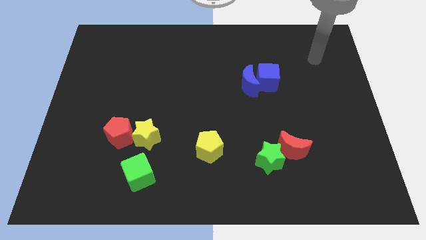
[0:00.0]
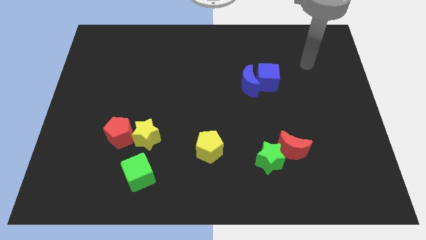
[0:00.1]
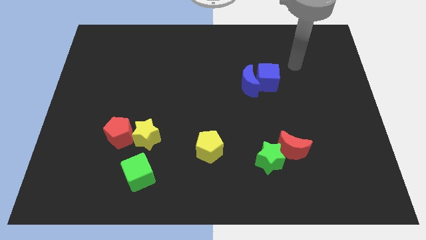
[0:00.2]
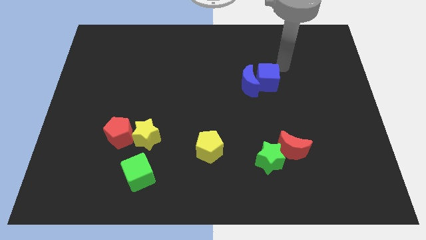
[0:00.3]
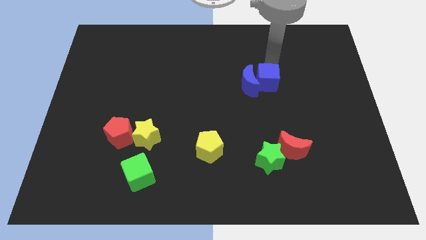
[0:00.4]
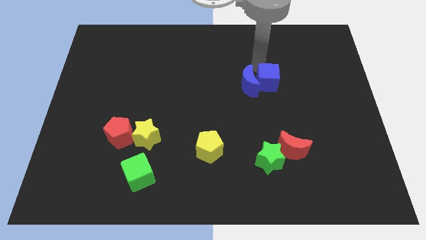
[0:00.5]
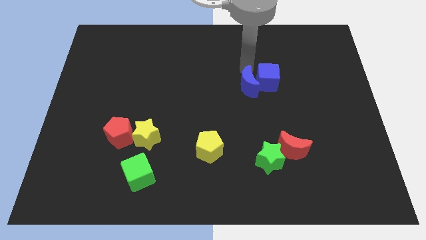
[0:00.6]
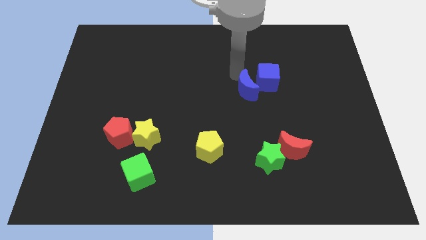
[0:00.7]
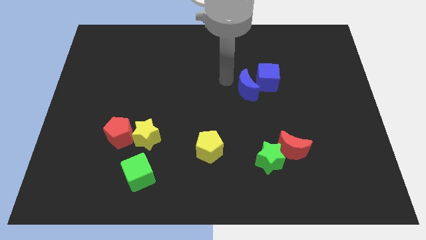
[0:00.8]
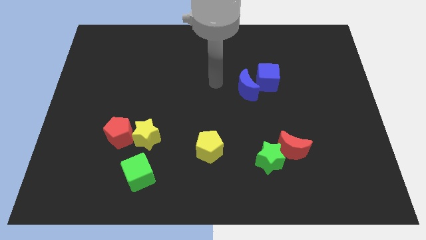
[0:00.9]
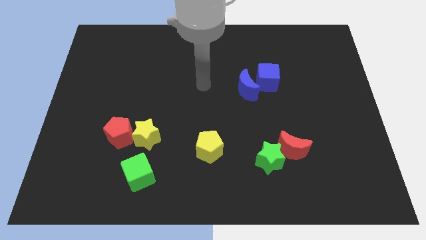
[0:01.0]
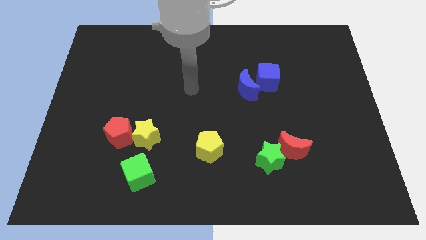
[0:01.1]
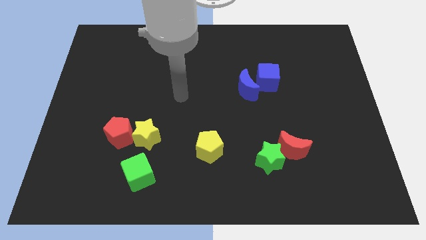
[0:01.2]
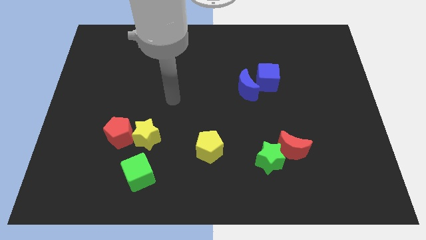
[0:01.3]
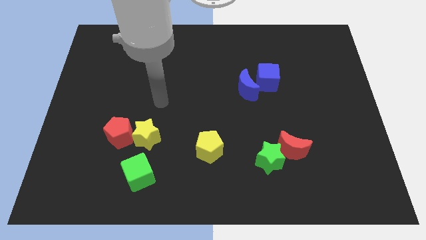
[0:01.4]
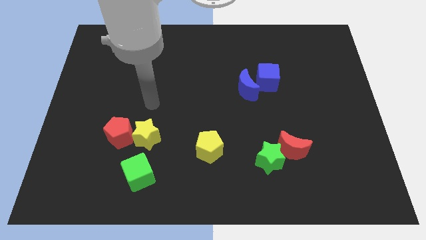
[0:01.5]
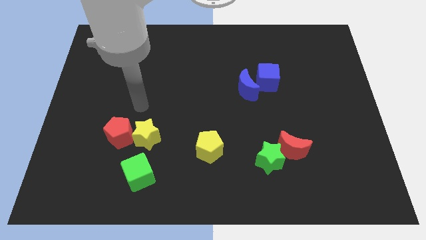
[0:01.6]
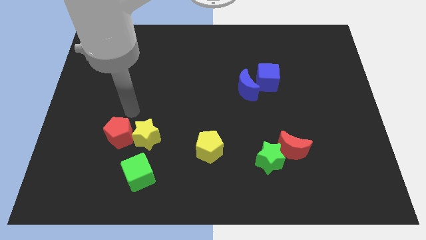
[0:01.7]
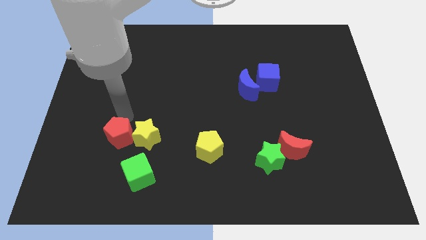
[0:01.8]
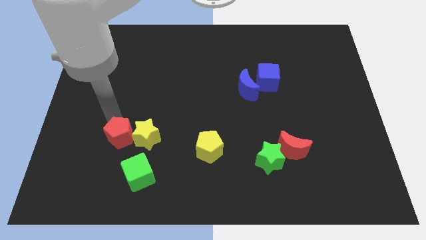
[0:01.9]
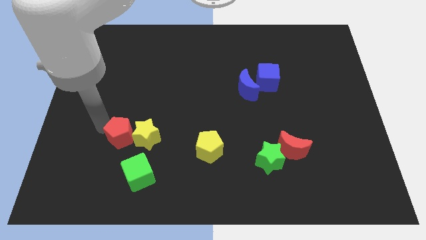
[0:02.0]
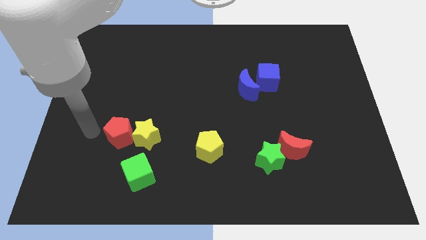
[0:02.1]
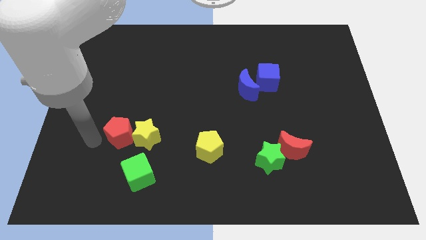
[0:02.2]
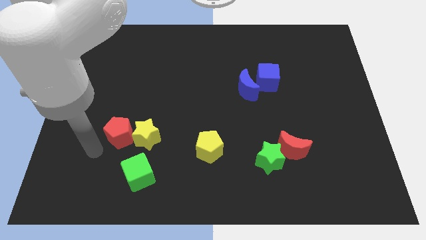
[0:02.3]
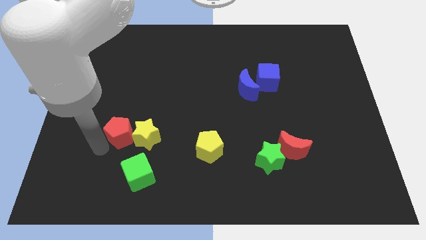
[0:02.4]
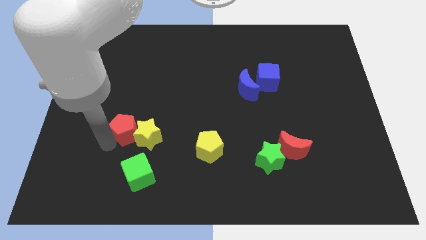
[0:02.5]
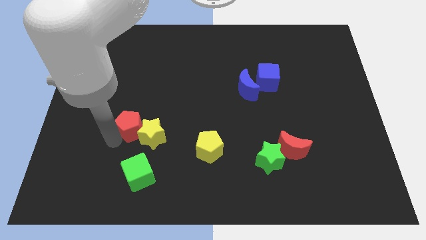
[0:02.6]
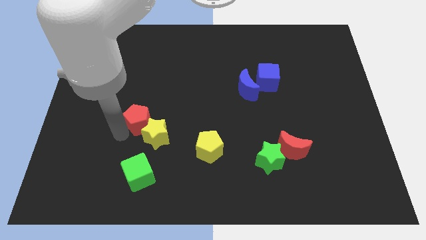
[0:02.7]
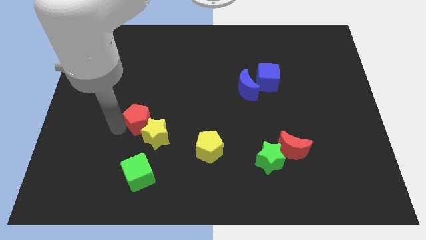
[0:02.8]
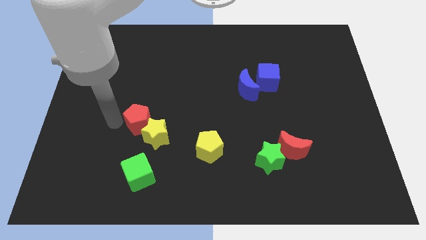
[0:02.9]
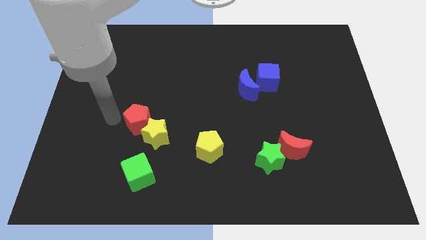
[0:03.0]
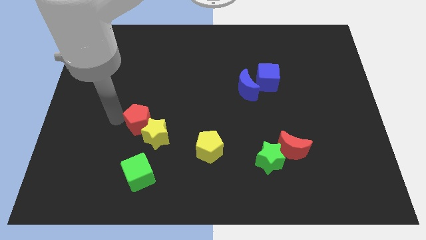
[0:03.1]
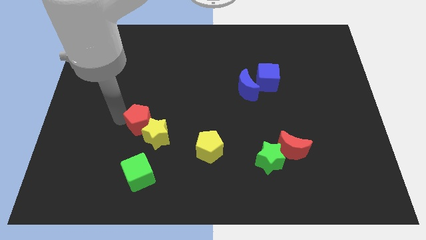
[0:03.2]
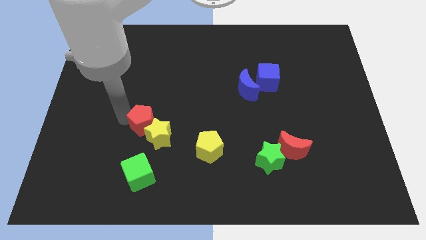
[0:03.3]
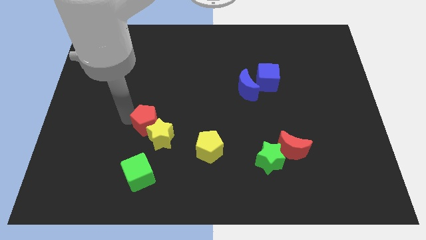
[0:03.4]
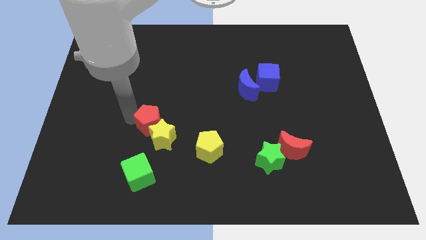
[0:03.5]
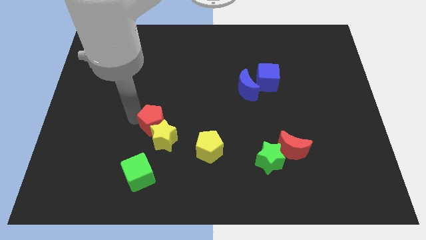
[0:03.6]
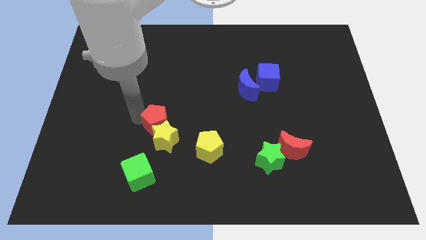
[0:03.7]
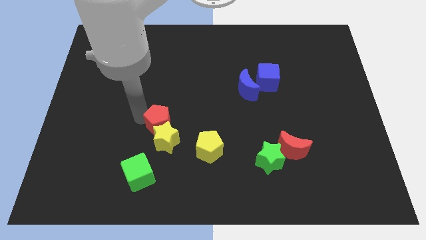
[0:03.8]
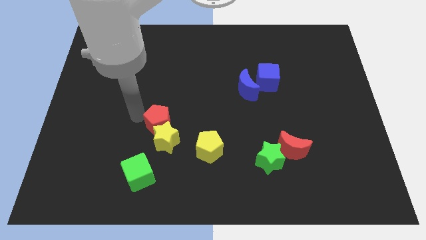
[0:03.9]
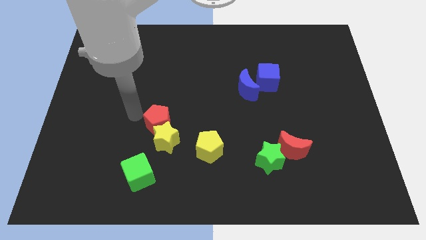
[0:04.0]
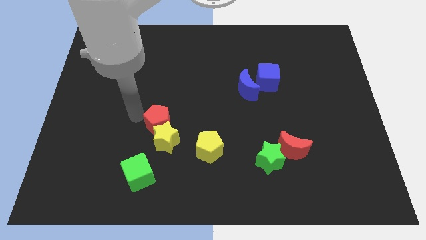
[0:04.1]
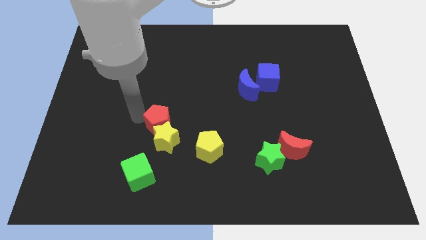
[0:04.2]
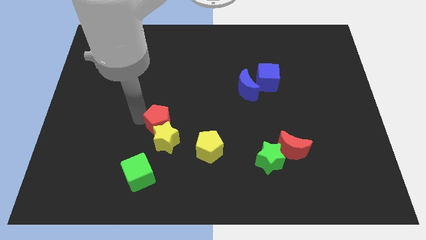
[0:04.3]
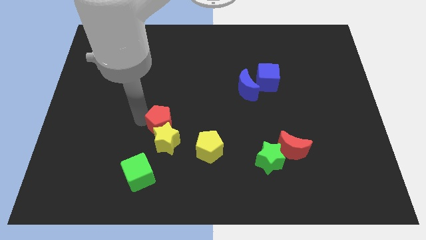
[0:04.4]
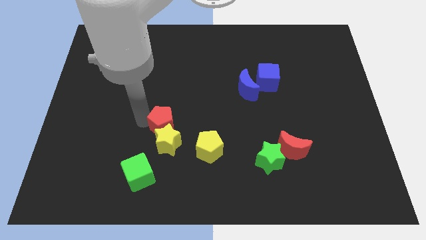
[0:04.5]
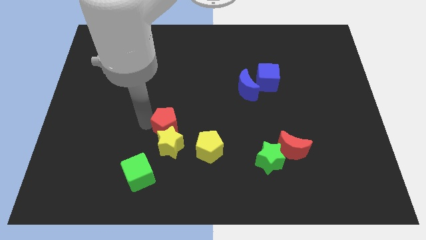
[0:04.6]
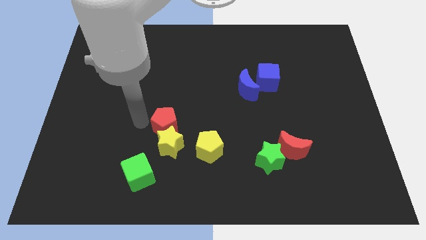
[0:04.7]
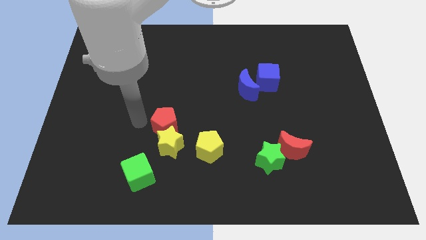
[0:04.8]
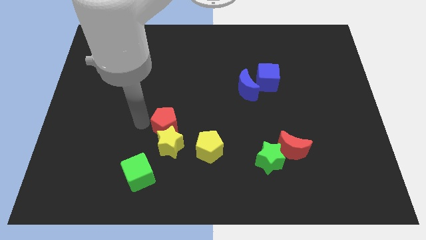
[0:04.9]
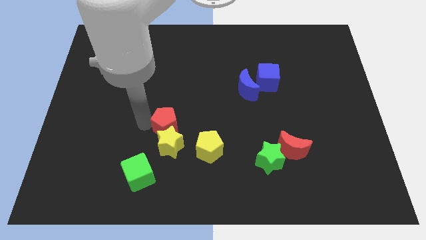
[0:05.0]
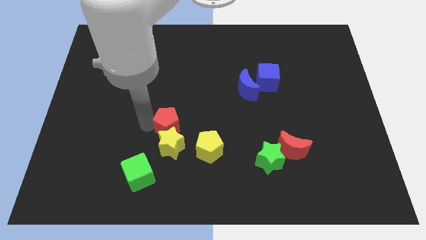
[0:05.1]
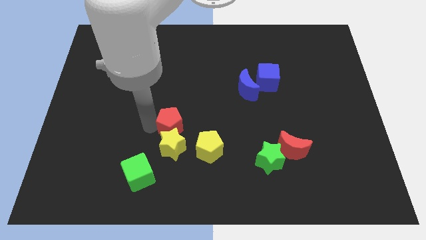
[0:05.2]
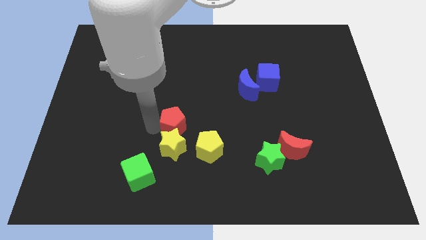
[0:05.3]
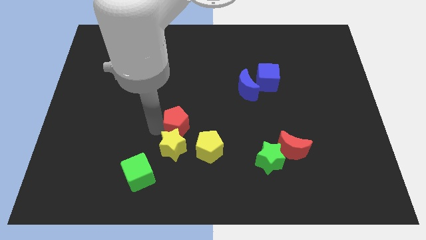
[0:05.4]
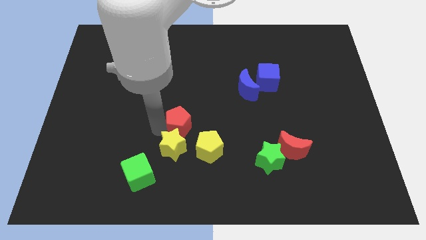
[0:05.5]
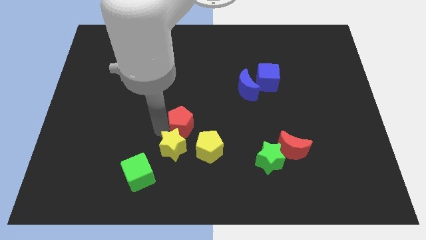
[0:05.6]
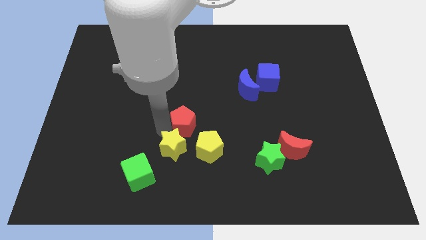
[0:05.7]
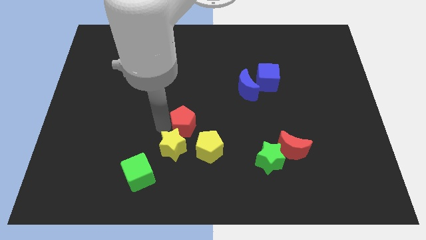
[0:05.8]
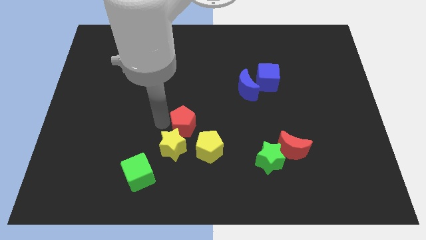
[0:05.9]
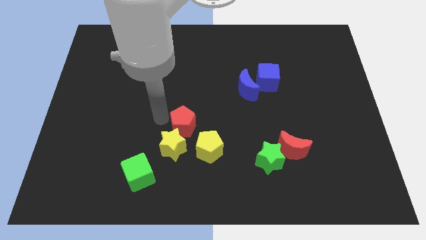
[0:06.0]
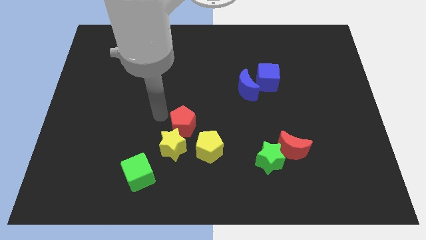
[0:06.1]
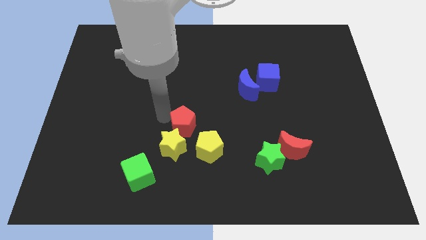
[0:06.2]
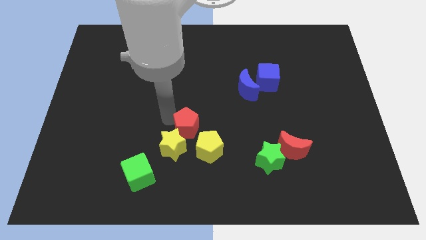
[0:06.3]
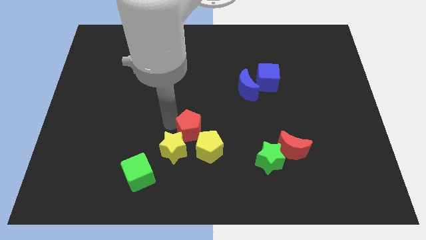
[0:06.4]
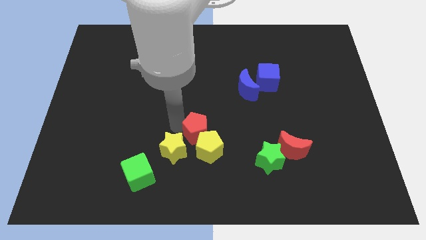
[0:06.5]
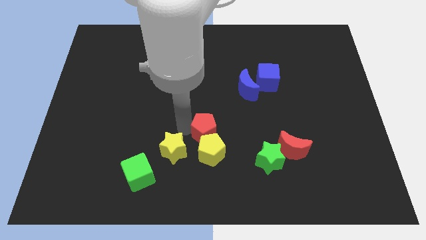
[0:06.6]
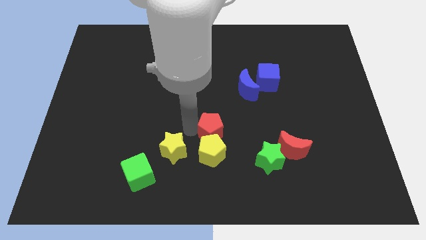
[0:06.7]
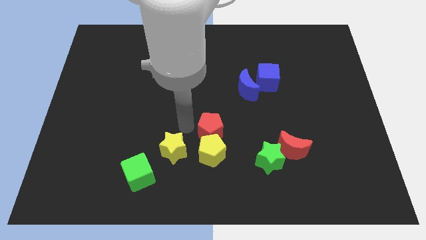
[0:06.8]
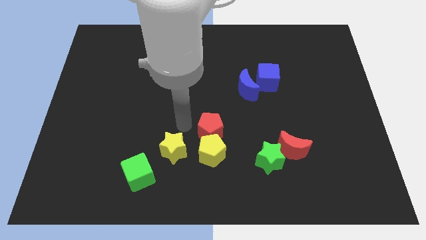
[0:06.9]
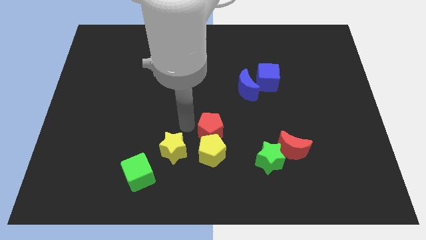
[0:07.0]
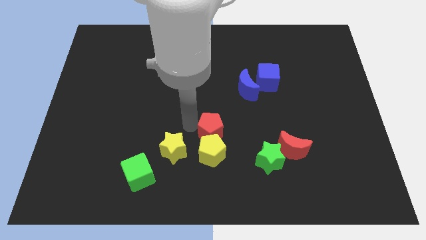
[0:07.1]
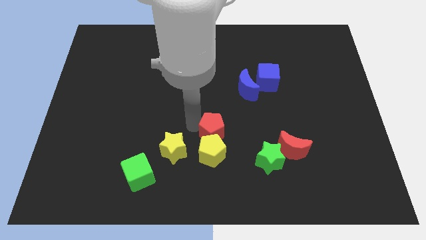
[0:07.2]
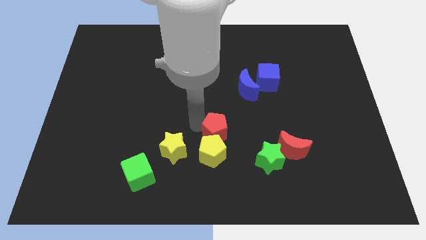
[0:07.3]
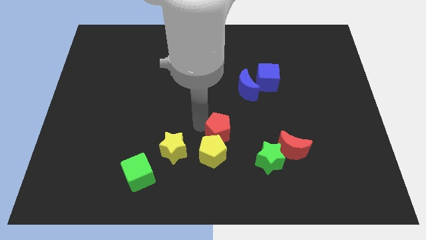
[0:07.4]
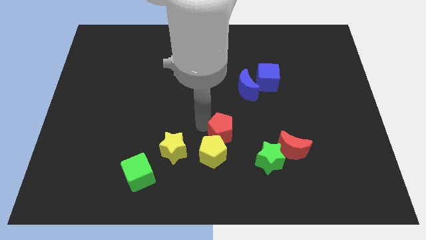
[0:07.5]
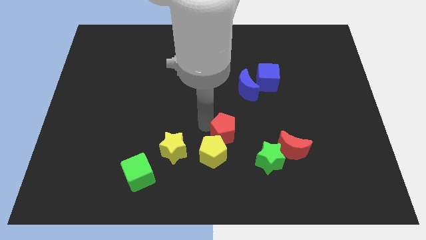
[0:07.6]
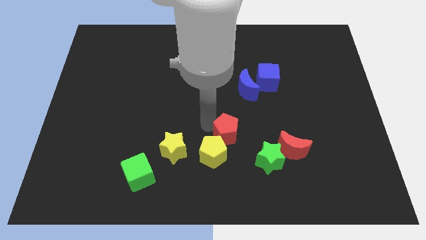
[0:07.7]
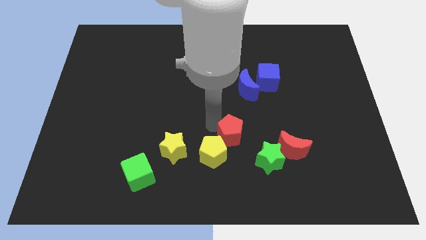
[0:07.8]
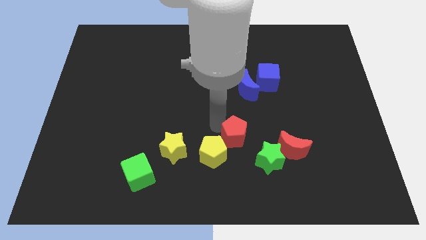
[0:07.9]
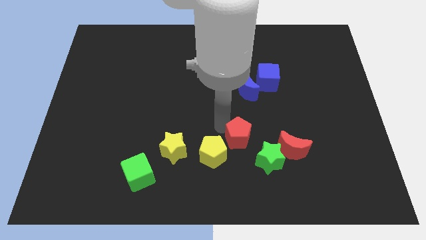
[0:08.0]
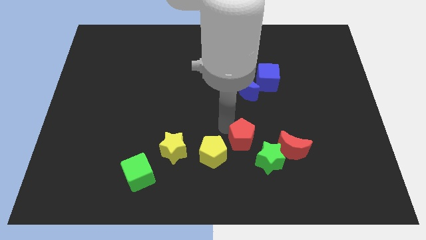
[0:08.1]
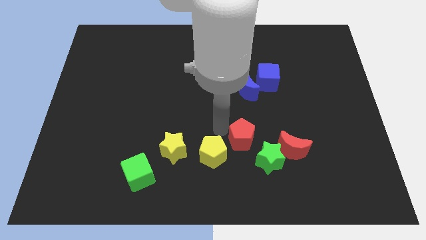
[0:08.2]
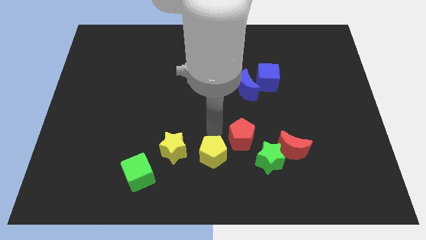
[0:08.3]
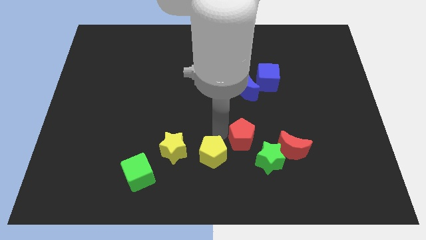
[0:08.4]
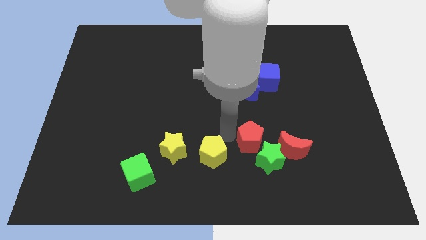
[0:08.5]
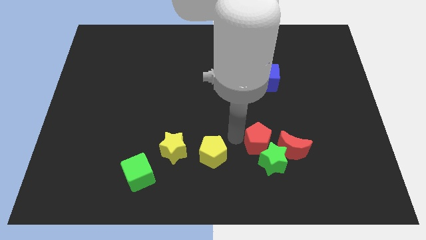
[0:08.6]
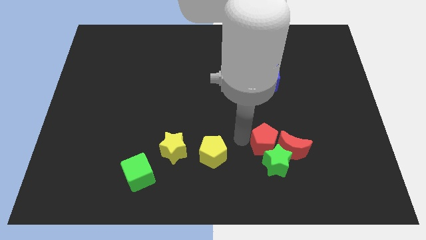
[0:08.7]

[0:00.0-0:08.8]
put the red pentagon next to the red moon
